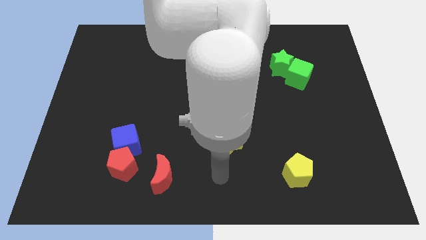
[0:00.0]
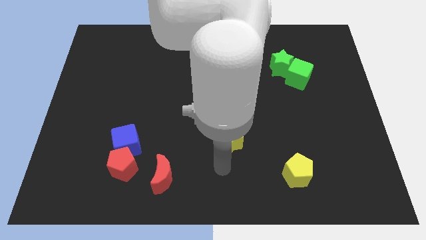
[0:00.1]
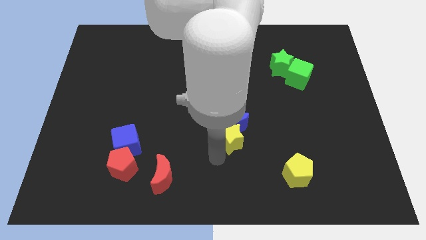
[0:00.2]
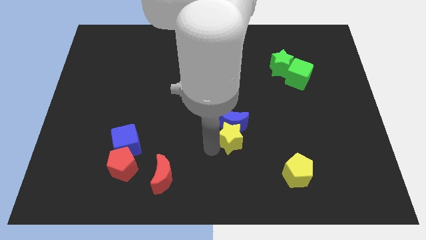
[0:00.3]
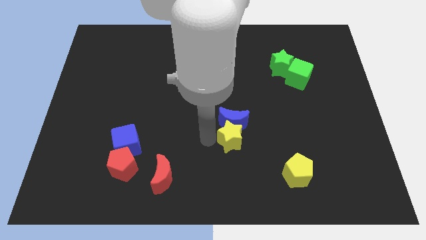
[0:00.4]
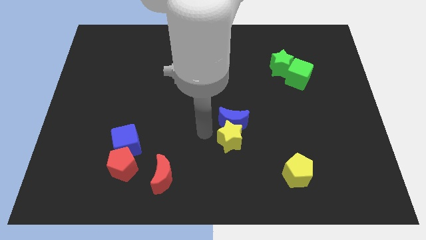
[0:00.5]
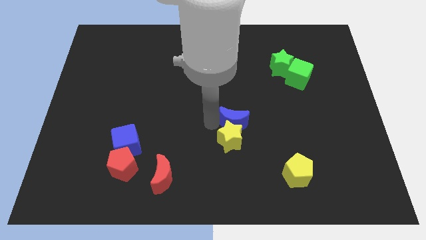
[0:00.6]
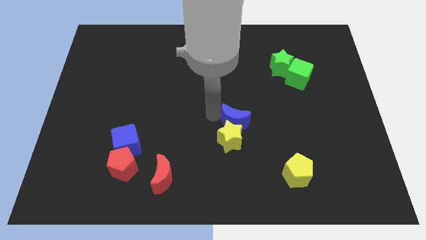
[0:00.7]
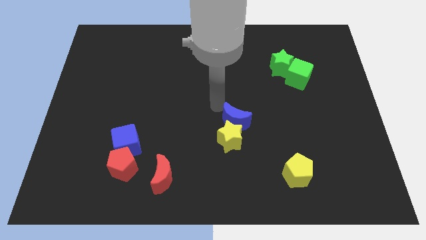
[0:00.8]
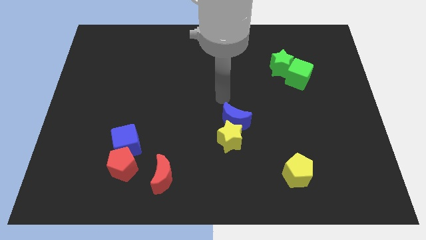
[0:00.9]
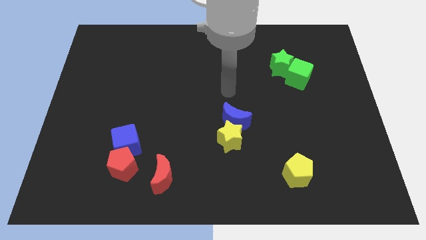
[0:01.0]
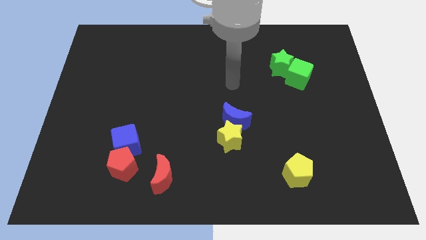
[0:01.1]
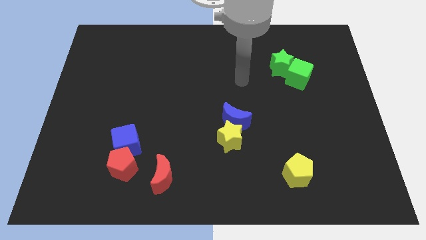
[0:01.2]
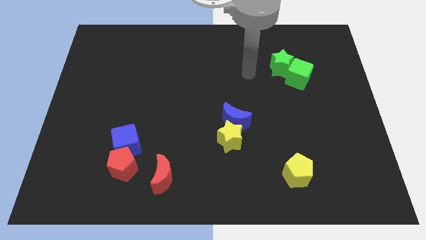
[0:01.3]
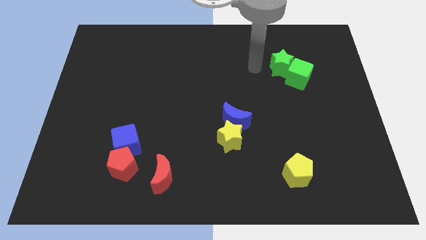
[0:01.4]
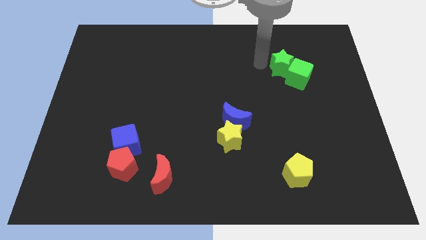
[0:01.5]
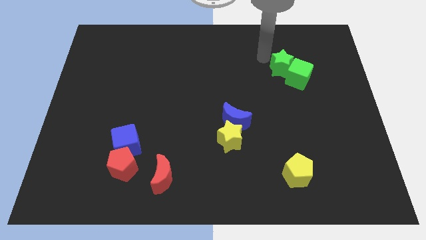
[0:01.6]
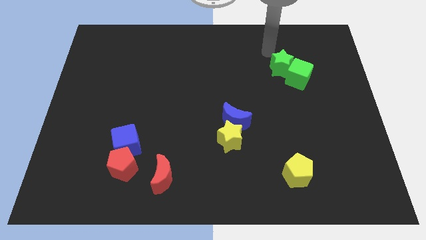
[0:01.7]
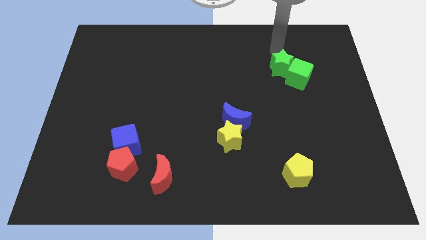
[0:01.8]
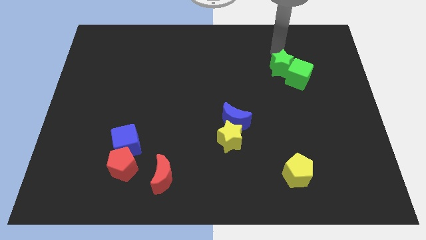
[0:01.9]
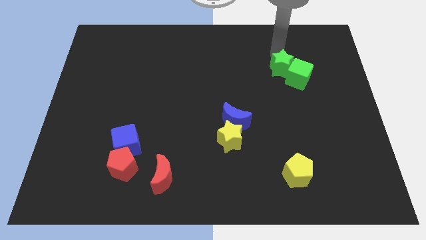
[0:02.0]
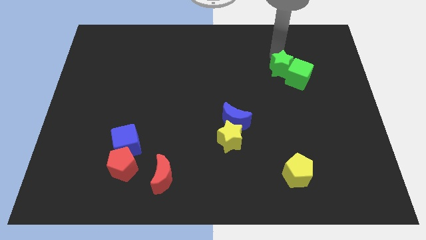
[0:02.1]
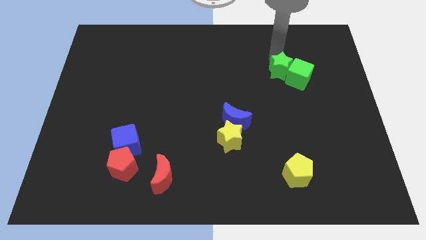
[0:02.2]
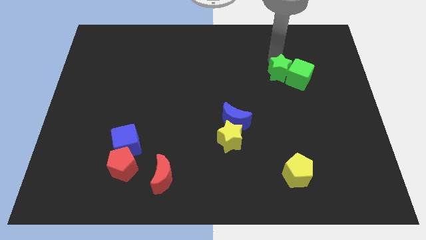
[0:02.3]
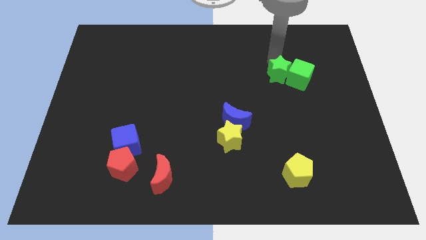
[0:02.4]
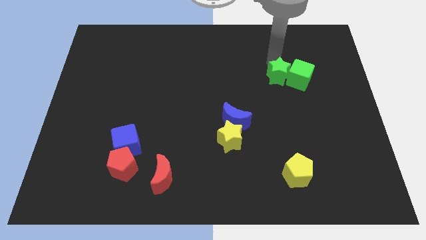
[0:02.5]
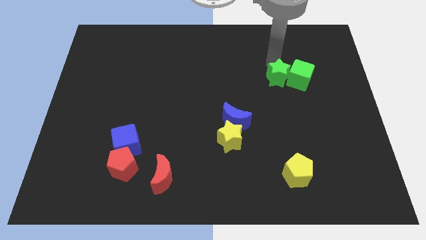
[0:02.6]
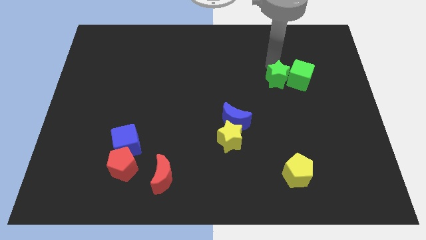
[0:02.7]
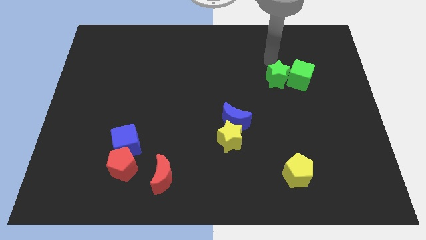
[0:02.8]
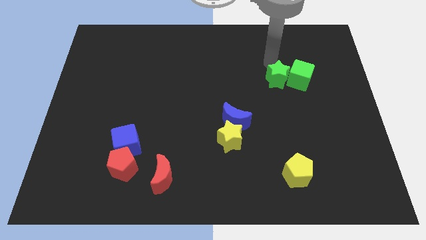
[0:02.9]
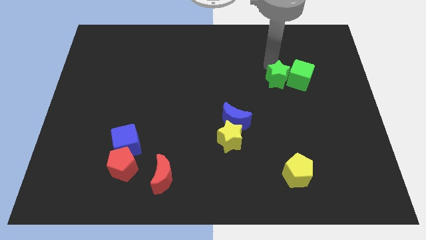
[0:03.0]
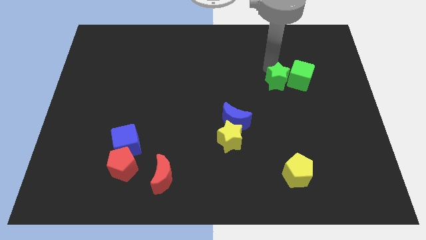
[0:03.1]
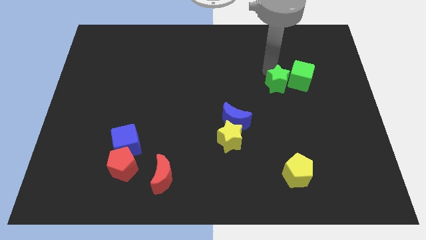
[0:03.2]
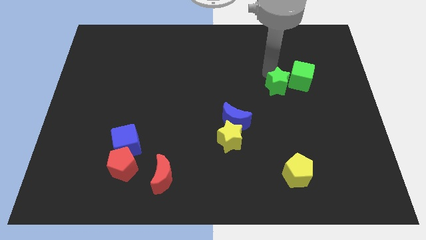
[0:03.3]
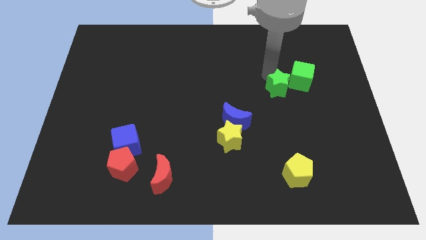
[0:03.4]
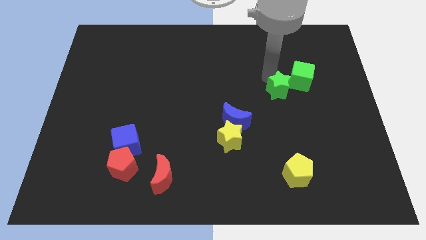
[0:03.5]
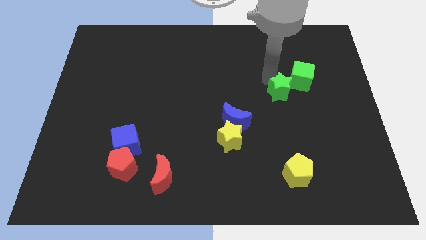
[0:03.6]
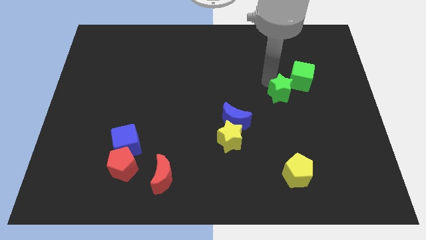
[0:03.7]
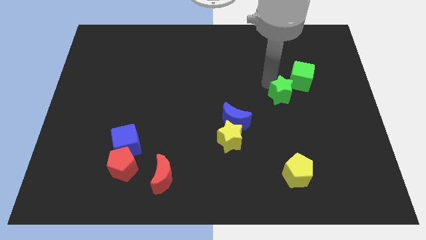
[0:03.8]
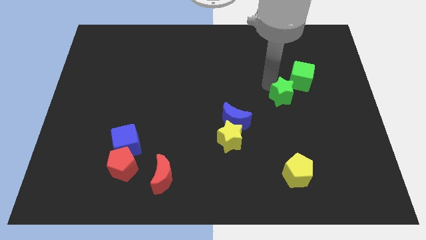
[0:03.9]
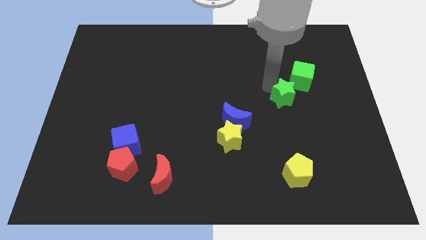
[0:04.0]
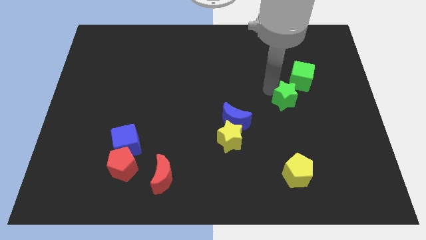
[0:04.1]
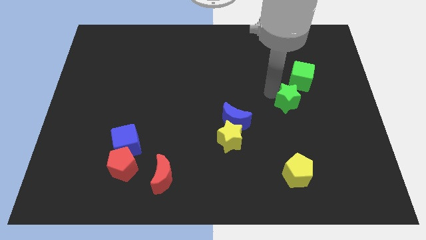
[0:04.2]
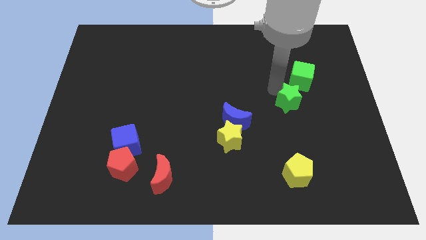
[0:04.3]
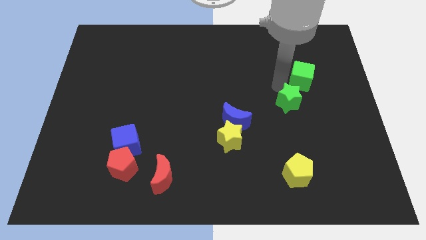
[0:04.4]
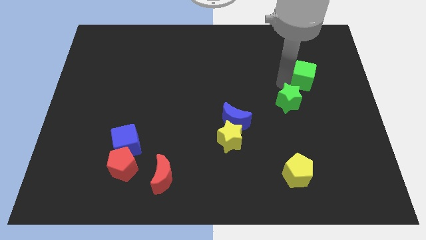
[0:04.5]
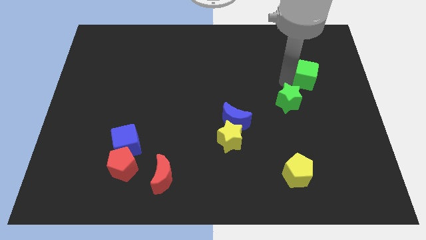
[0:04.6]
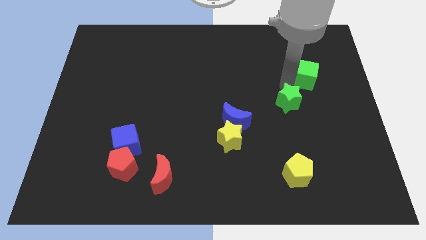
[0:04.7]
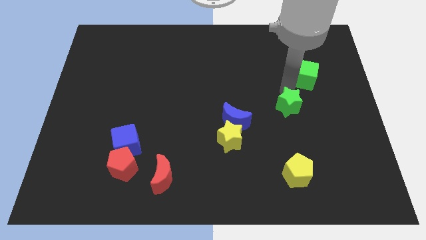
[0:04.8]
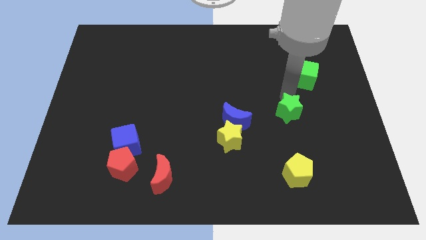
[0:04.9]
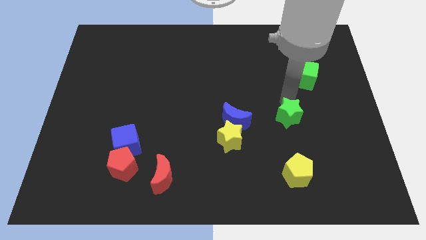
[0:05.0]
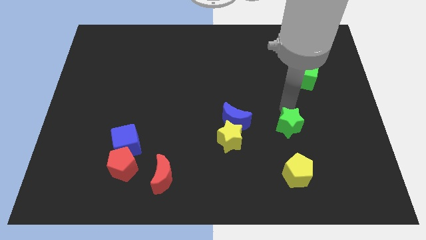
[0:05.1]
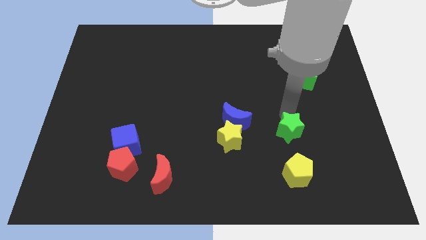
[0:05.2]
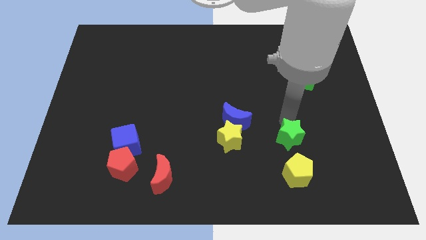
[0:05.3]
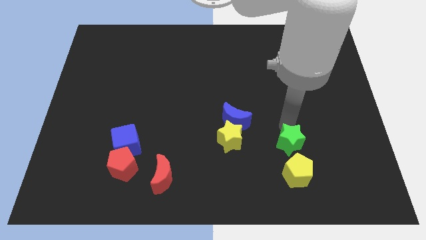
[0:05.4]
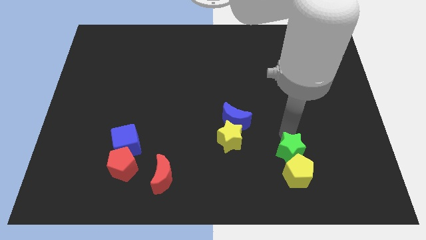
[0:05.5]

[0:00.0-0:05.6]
push the green star towards the yellow pentagon

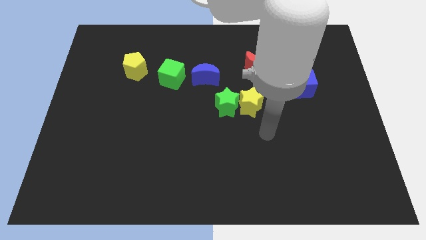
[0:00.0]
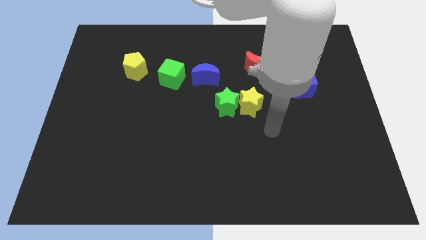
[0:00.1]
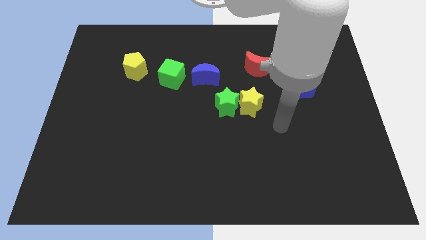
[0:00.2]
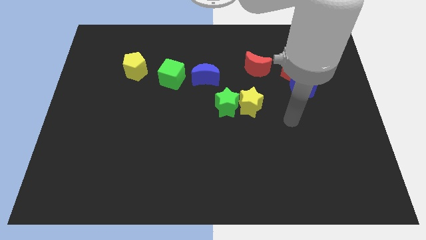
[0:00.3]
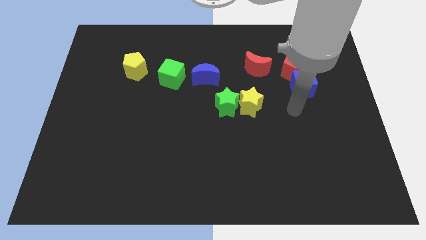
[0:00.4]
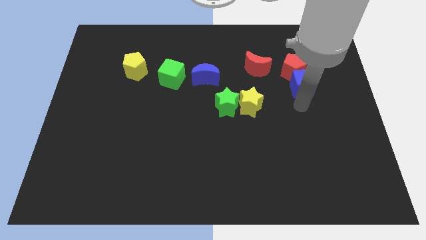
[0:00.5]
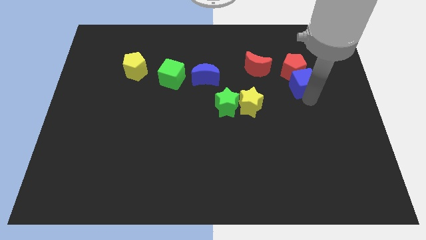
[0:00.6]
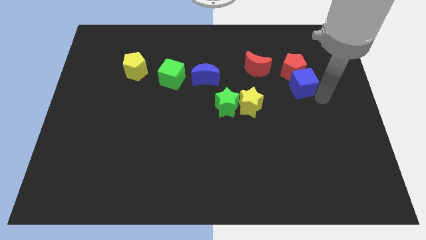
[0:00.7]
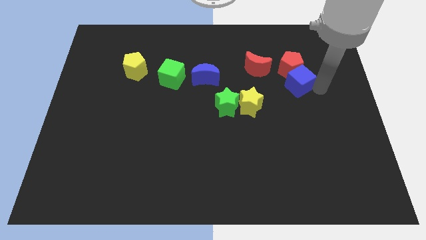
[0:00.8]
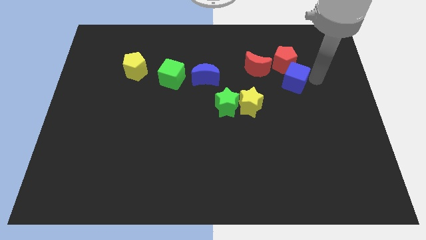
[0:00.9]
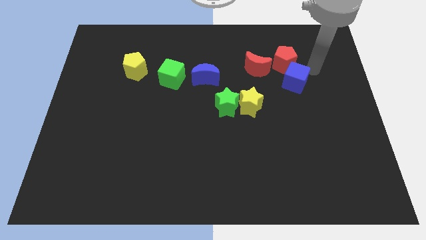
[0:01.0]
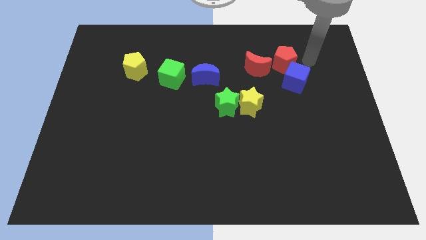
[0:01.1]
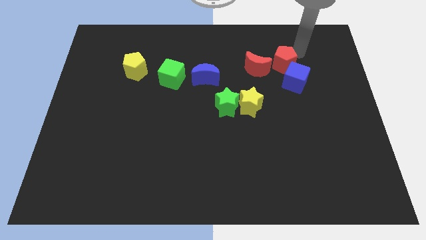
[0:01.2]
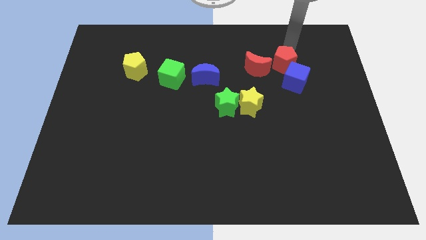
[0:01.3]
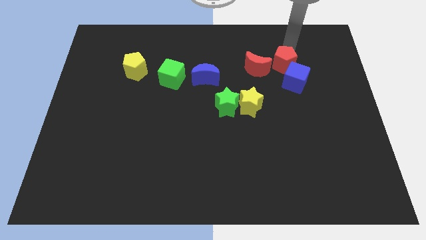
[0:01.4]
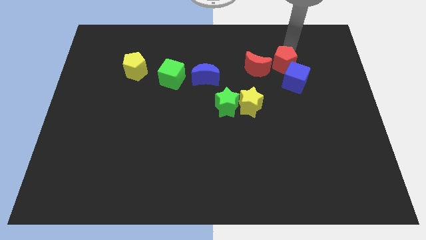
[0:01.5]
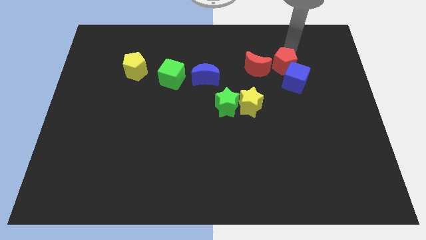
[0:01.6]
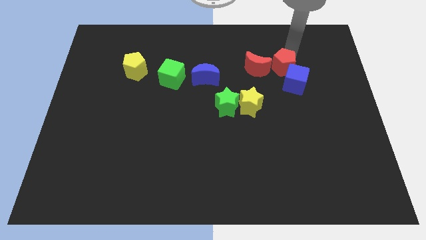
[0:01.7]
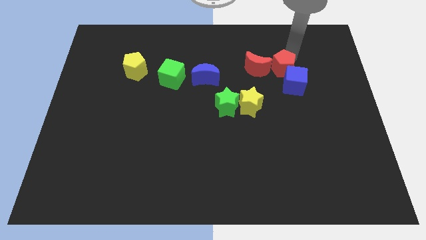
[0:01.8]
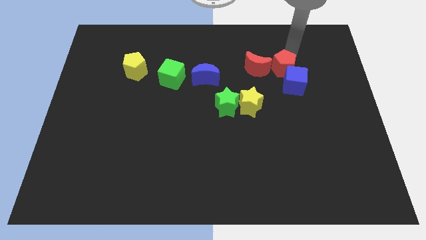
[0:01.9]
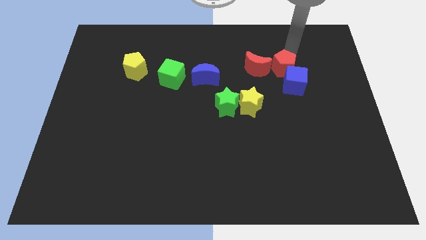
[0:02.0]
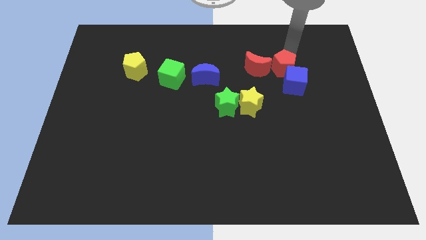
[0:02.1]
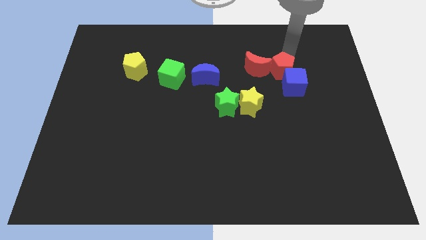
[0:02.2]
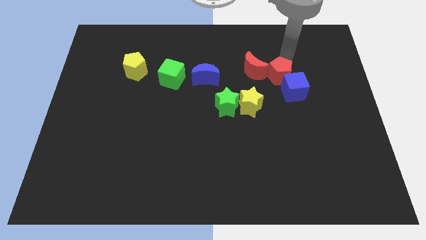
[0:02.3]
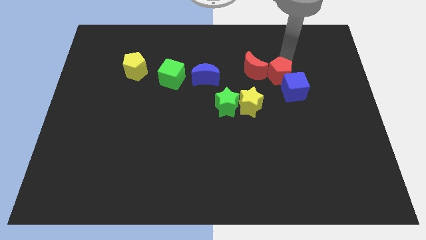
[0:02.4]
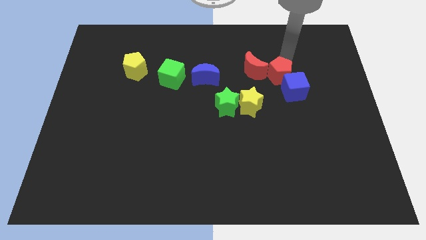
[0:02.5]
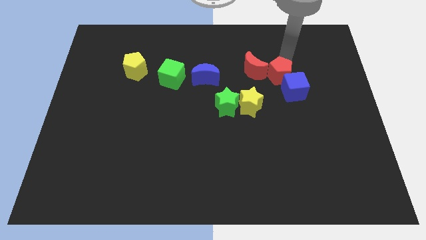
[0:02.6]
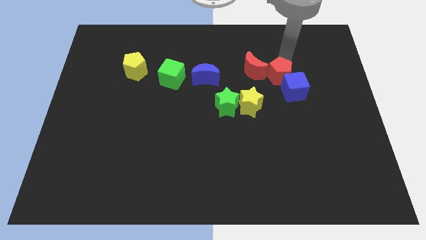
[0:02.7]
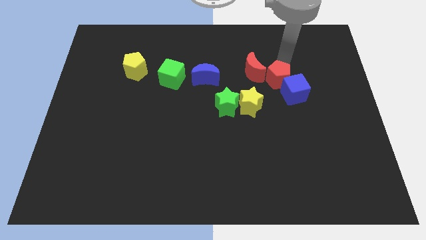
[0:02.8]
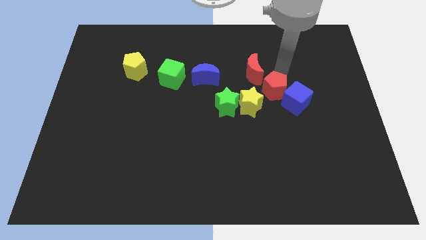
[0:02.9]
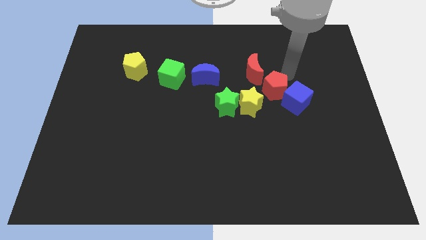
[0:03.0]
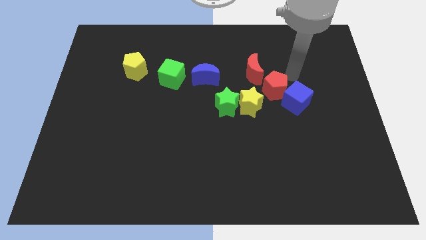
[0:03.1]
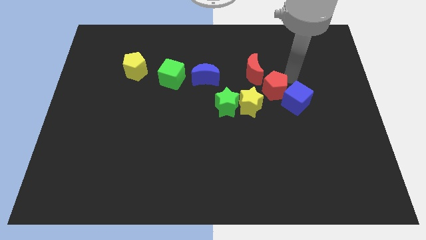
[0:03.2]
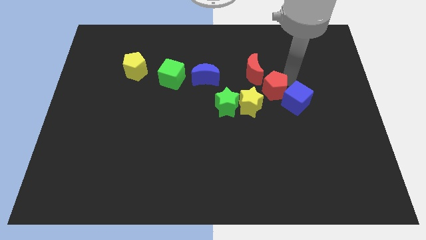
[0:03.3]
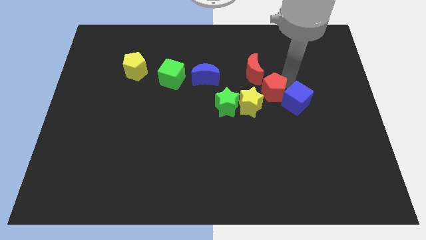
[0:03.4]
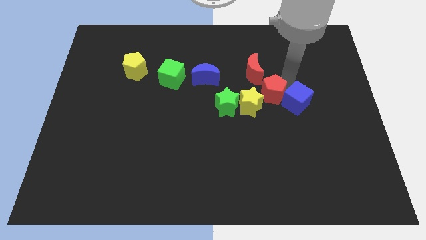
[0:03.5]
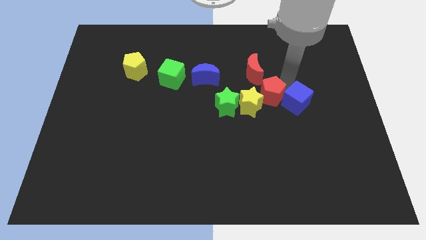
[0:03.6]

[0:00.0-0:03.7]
push the red pentagon next to the yellow star
